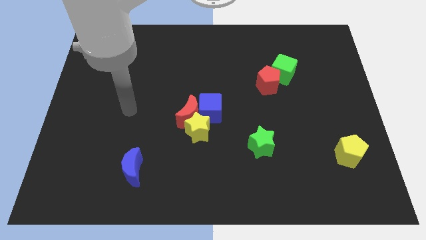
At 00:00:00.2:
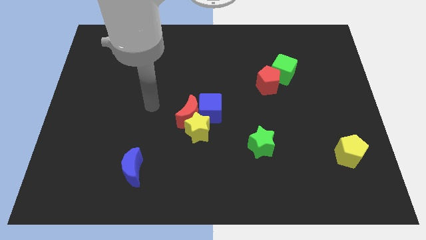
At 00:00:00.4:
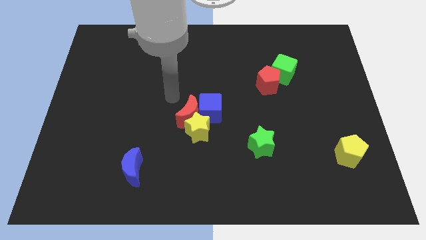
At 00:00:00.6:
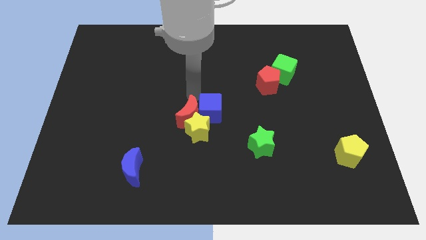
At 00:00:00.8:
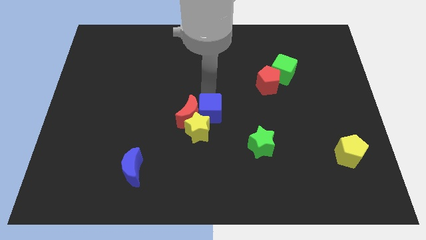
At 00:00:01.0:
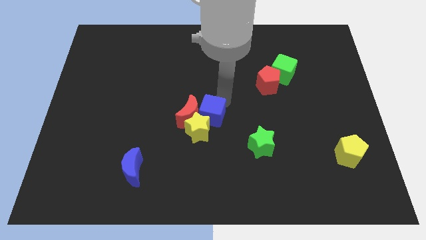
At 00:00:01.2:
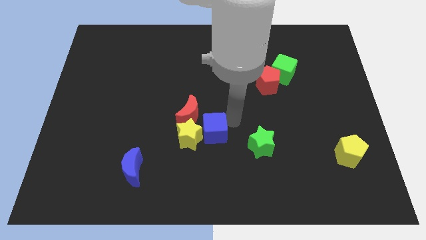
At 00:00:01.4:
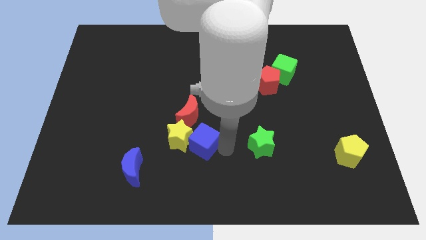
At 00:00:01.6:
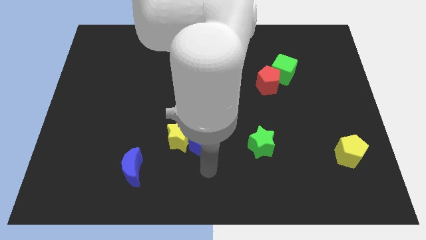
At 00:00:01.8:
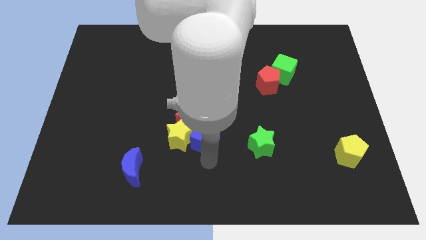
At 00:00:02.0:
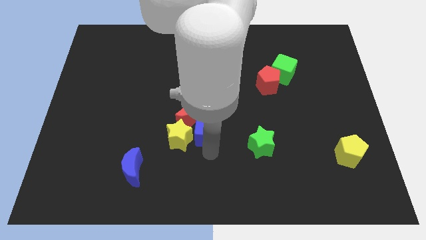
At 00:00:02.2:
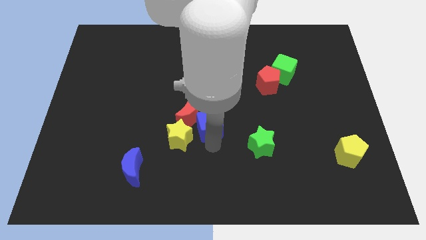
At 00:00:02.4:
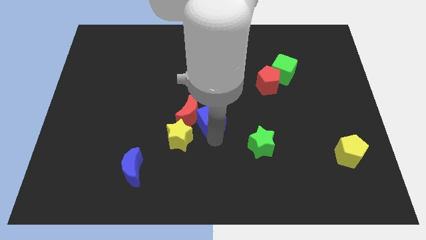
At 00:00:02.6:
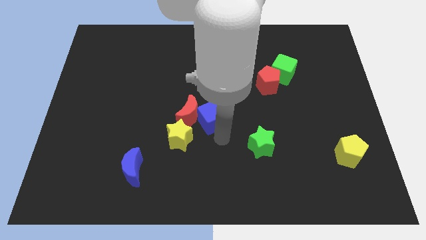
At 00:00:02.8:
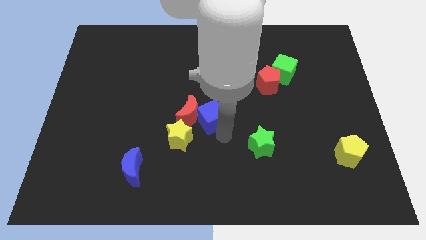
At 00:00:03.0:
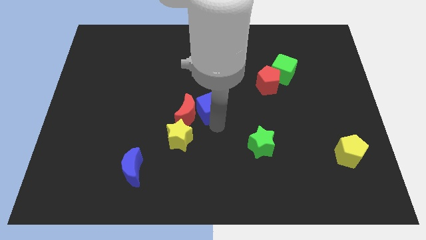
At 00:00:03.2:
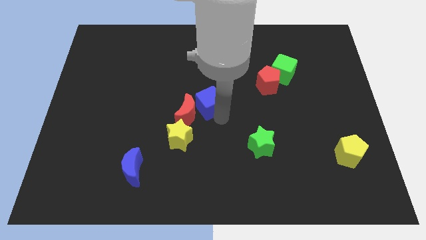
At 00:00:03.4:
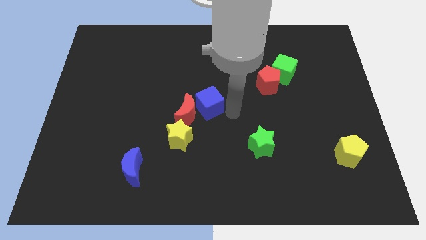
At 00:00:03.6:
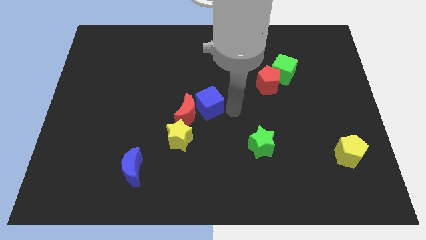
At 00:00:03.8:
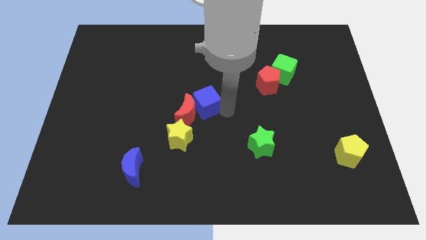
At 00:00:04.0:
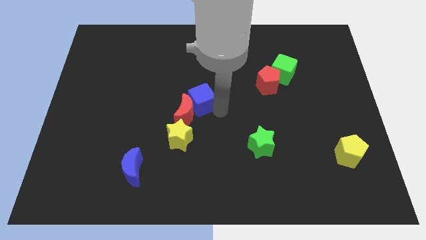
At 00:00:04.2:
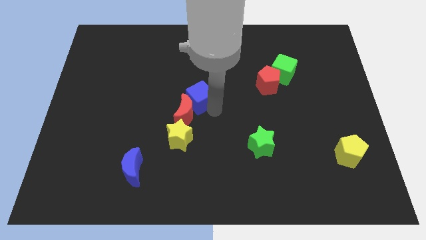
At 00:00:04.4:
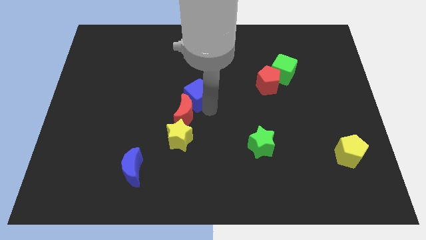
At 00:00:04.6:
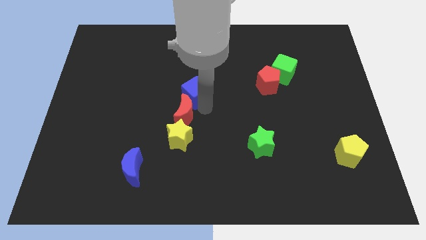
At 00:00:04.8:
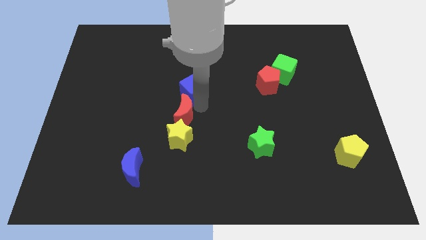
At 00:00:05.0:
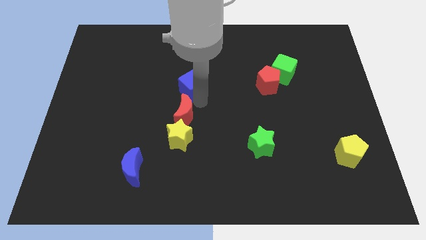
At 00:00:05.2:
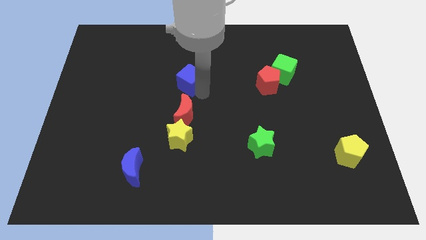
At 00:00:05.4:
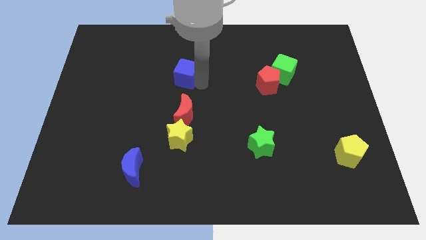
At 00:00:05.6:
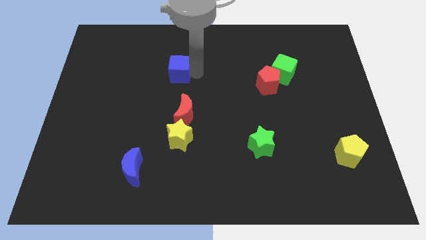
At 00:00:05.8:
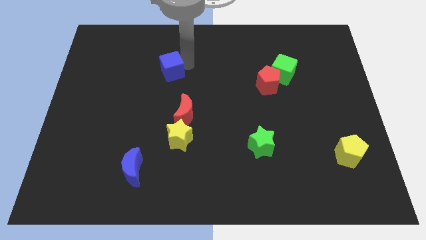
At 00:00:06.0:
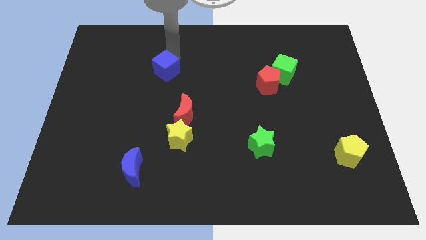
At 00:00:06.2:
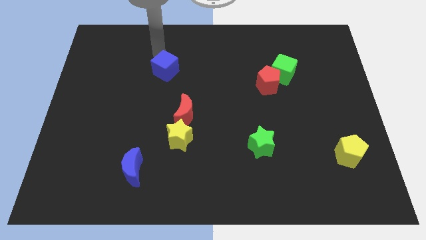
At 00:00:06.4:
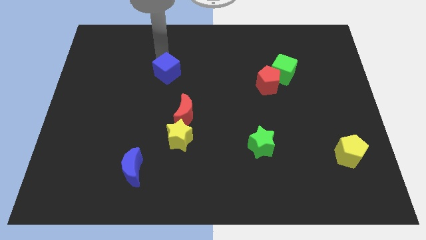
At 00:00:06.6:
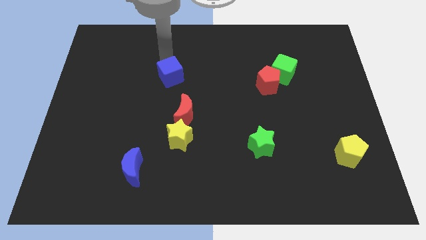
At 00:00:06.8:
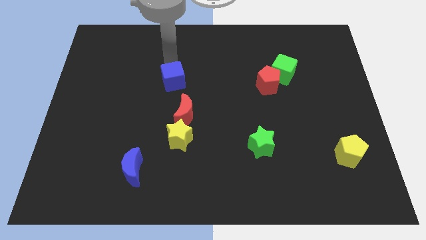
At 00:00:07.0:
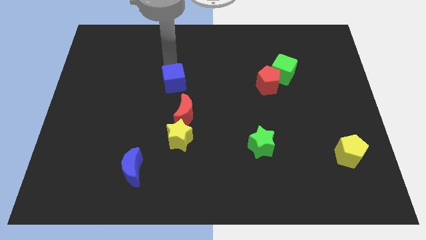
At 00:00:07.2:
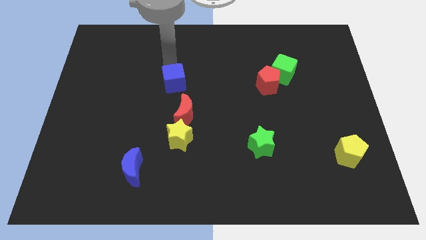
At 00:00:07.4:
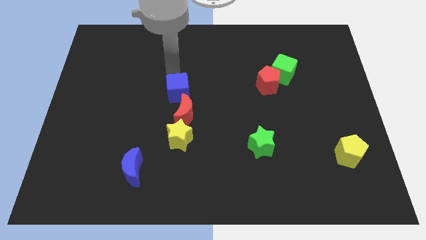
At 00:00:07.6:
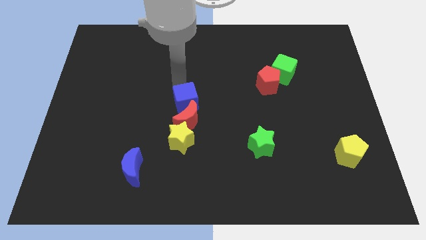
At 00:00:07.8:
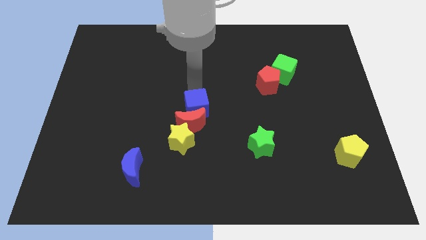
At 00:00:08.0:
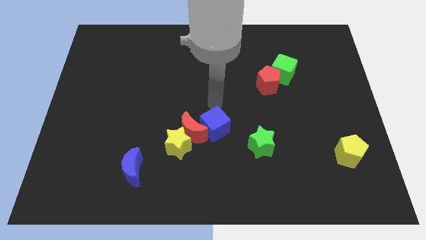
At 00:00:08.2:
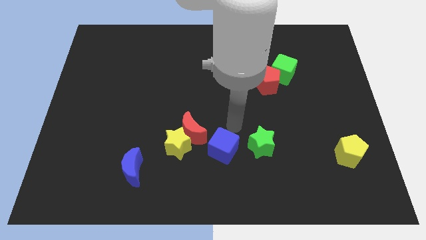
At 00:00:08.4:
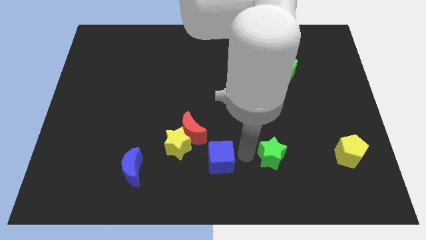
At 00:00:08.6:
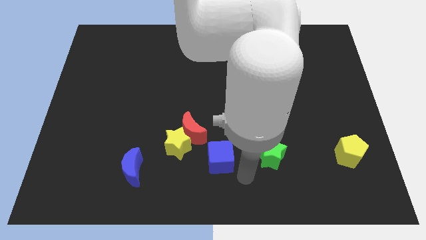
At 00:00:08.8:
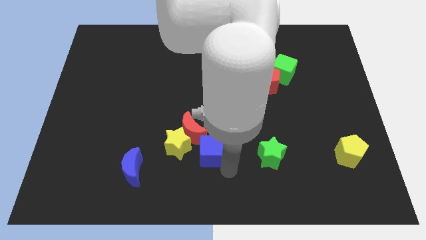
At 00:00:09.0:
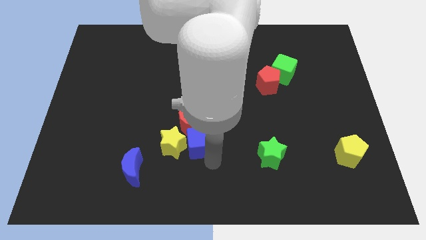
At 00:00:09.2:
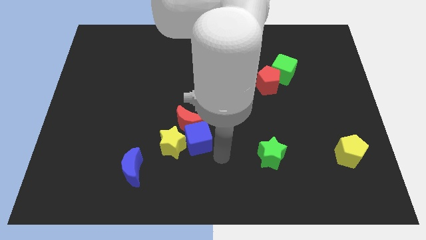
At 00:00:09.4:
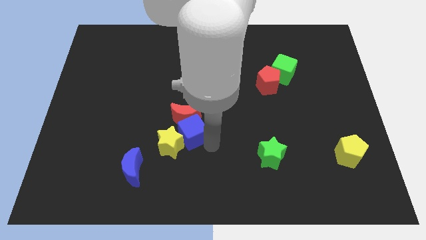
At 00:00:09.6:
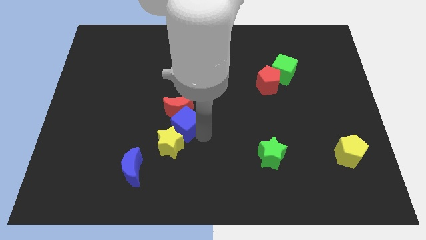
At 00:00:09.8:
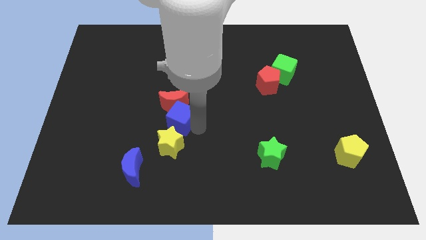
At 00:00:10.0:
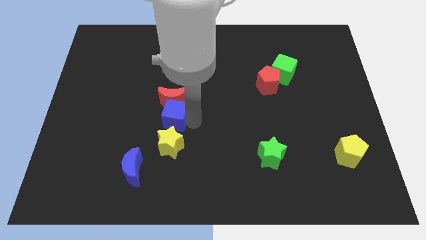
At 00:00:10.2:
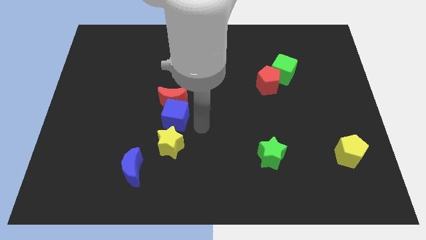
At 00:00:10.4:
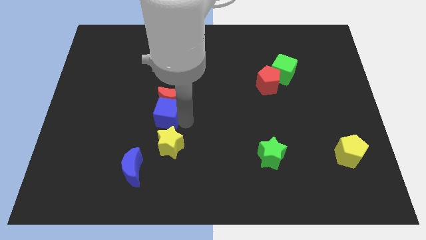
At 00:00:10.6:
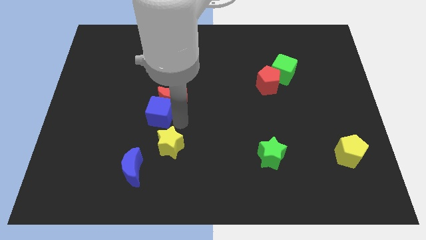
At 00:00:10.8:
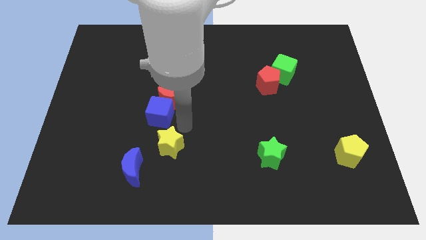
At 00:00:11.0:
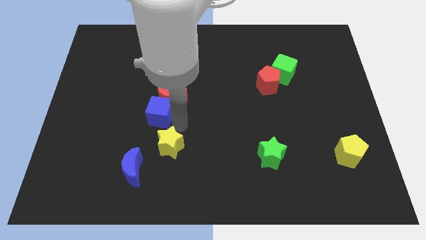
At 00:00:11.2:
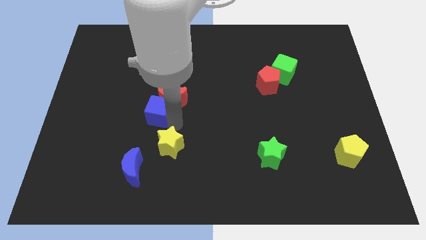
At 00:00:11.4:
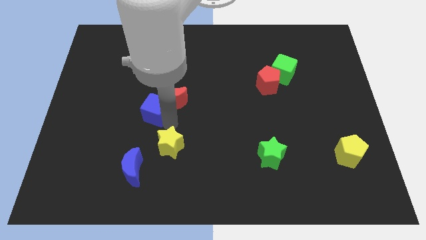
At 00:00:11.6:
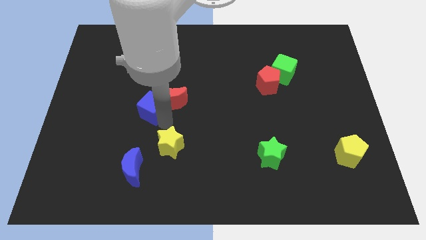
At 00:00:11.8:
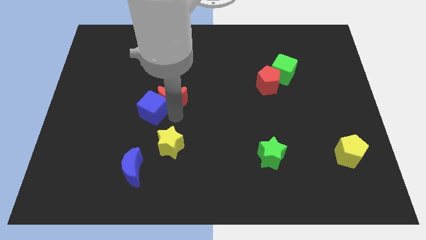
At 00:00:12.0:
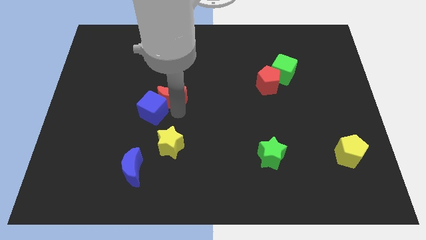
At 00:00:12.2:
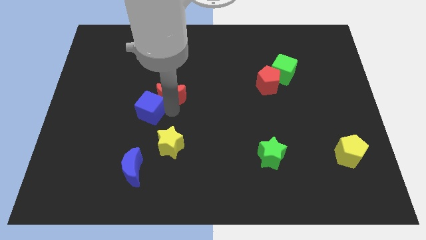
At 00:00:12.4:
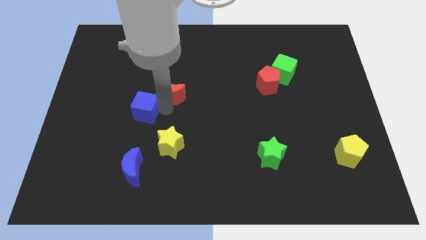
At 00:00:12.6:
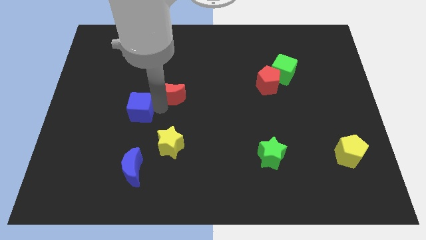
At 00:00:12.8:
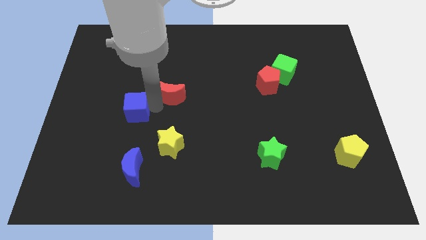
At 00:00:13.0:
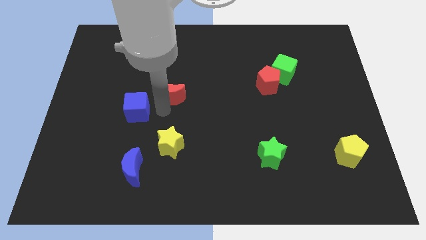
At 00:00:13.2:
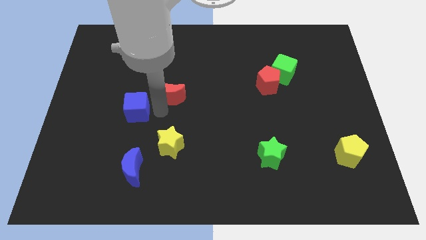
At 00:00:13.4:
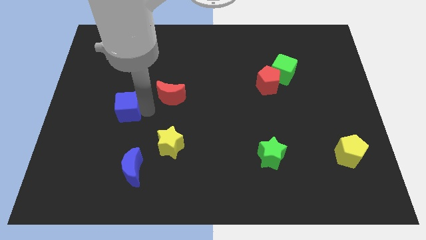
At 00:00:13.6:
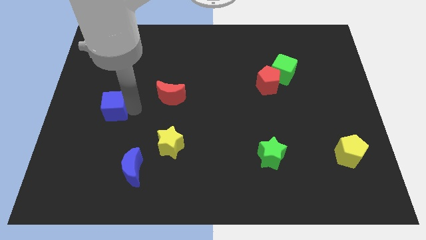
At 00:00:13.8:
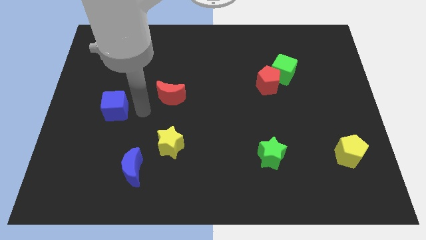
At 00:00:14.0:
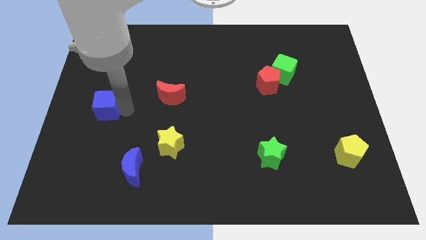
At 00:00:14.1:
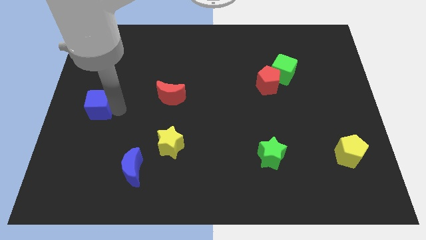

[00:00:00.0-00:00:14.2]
put the blue cube to the left side of the board
